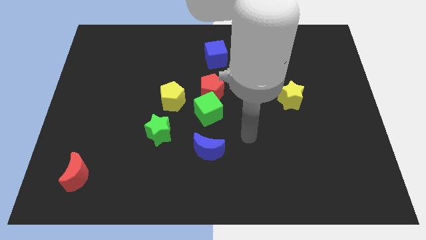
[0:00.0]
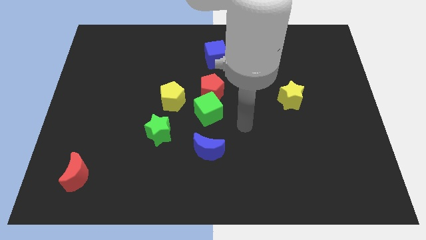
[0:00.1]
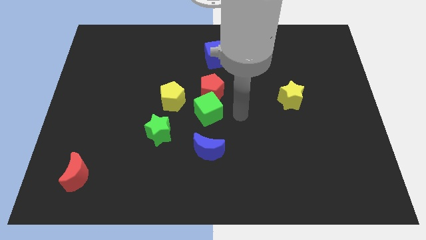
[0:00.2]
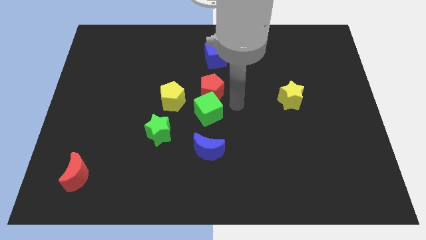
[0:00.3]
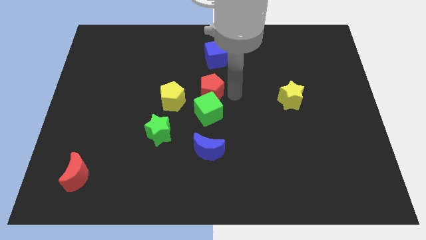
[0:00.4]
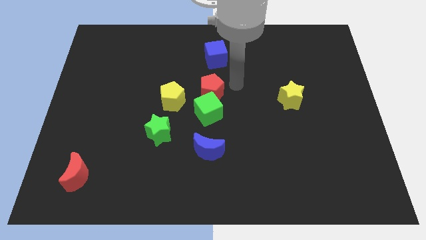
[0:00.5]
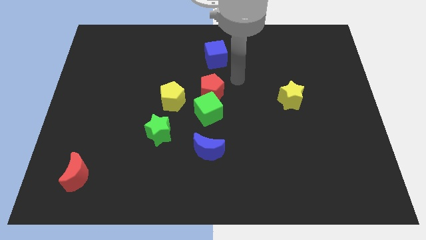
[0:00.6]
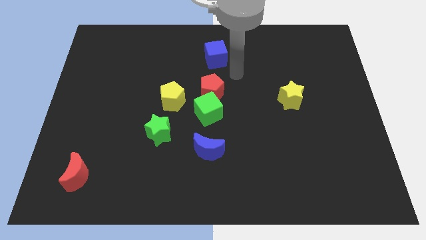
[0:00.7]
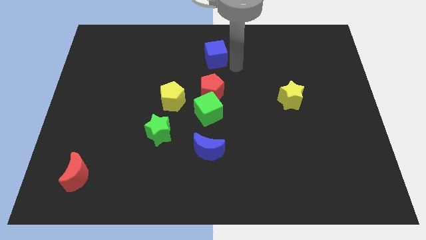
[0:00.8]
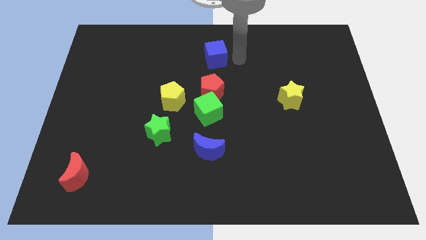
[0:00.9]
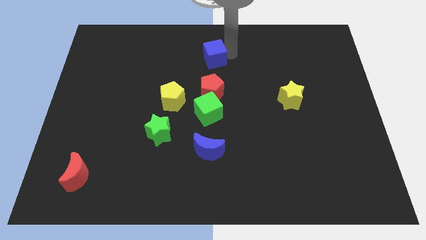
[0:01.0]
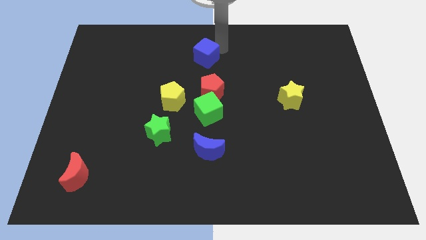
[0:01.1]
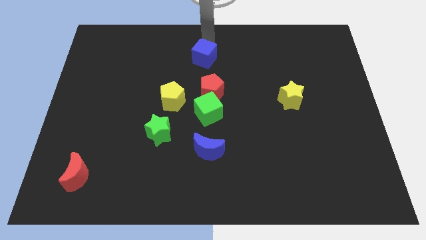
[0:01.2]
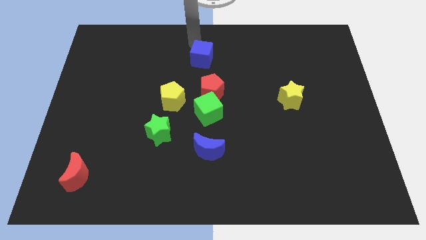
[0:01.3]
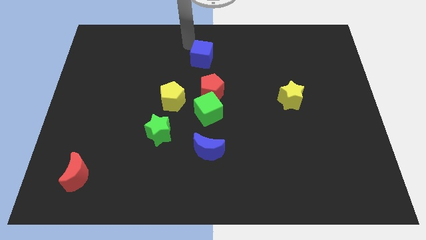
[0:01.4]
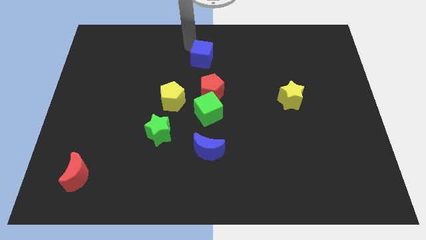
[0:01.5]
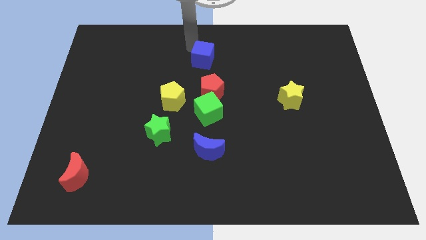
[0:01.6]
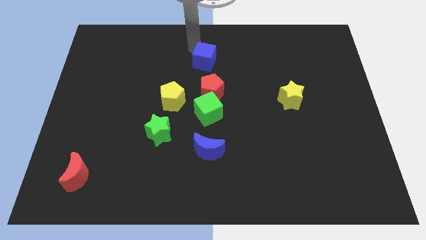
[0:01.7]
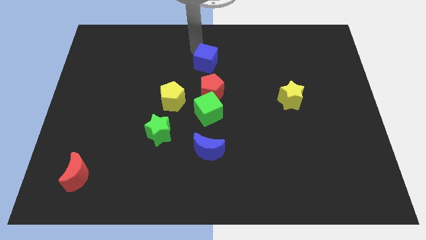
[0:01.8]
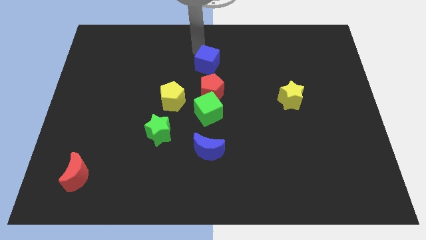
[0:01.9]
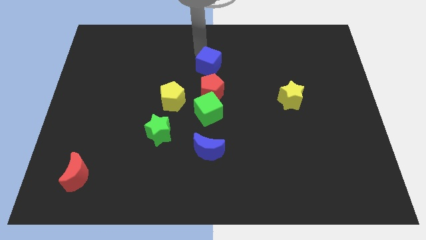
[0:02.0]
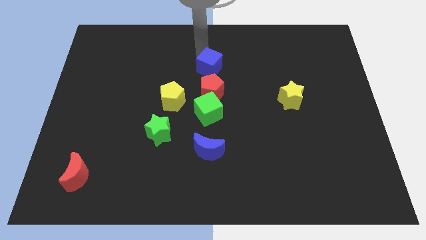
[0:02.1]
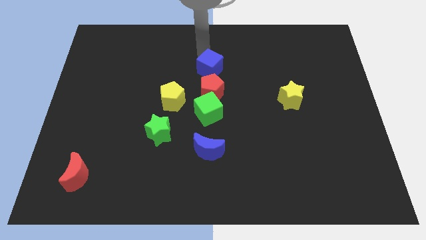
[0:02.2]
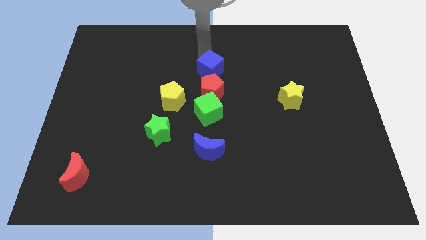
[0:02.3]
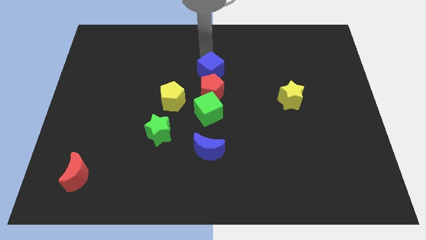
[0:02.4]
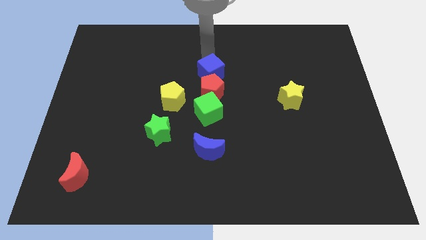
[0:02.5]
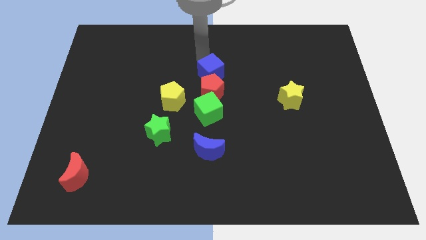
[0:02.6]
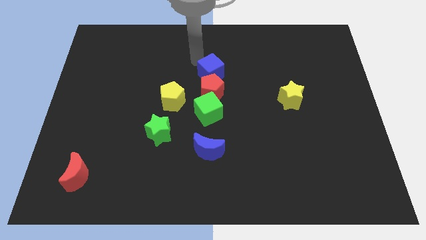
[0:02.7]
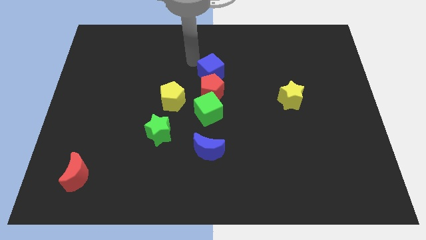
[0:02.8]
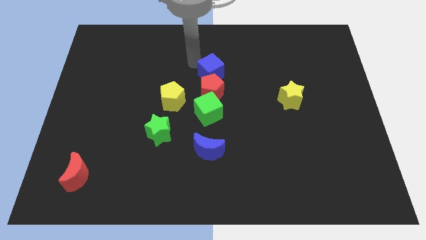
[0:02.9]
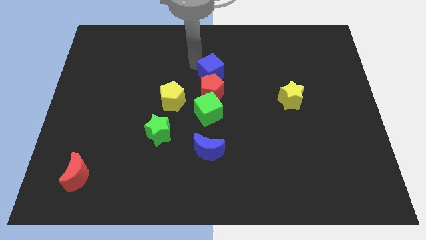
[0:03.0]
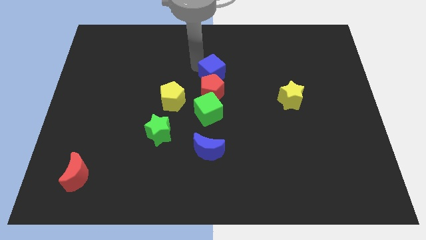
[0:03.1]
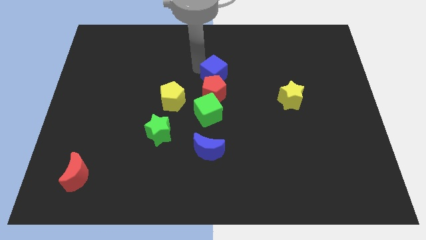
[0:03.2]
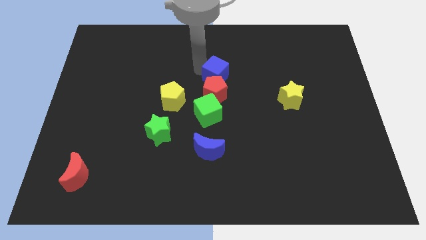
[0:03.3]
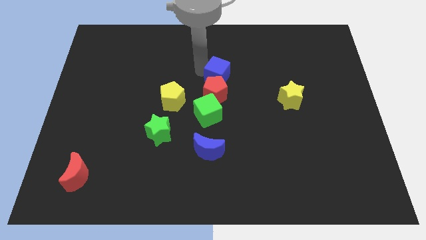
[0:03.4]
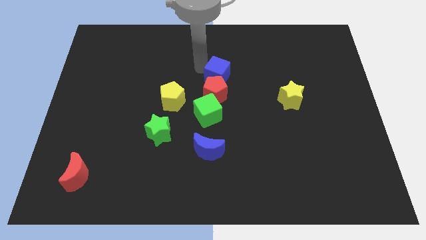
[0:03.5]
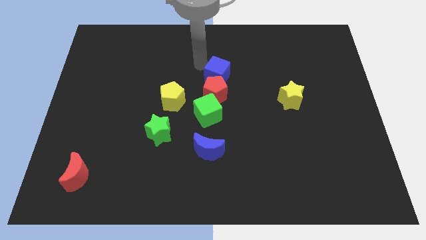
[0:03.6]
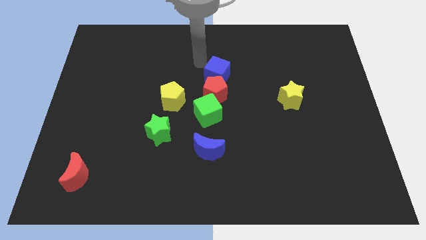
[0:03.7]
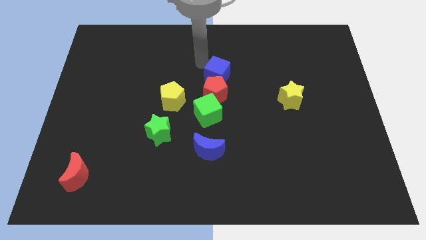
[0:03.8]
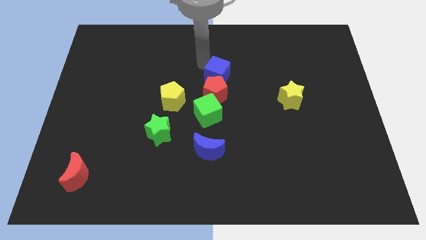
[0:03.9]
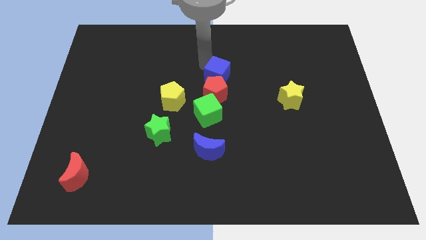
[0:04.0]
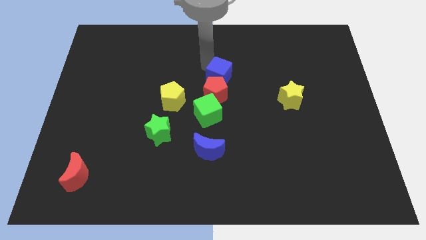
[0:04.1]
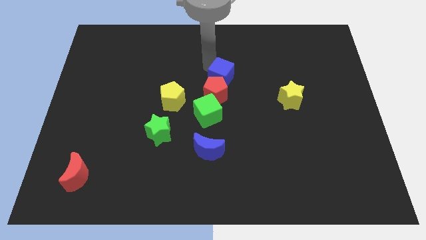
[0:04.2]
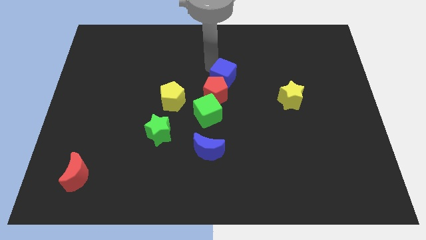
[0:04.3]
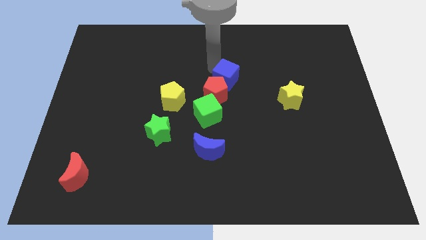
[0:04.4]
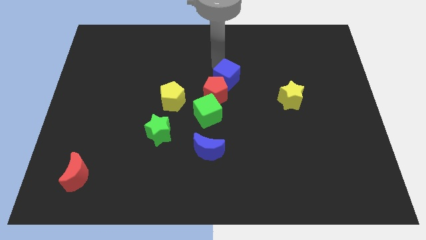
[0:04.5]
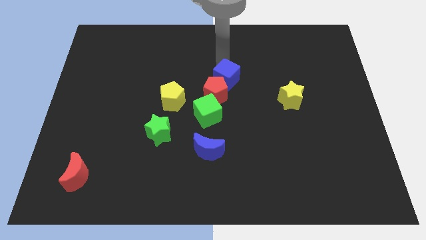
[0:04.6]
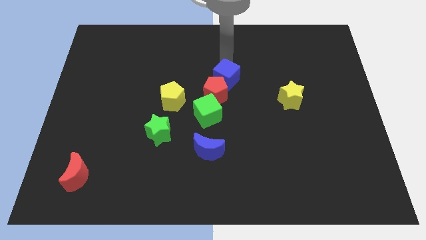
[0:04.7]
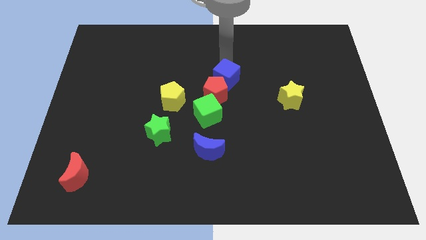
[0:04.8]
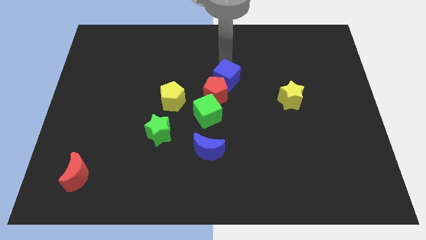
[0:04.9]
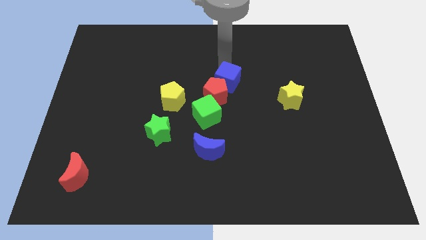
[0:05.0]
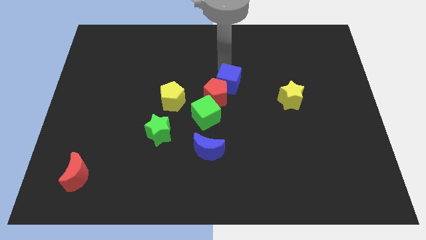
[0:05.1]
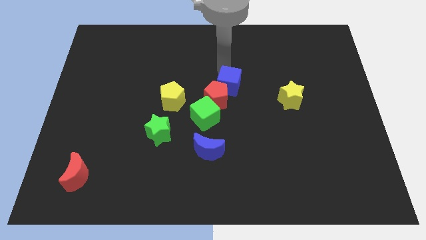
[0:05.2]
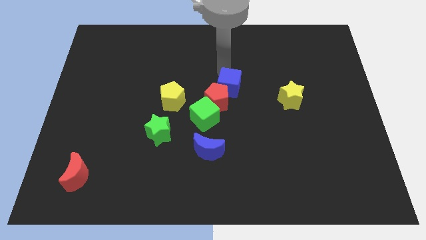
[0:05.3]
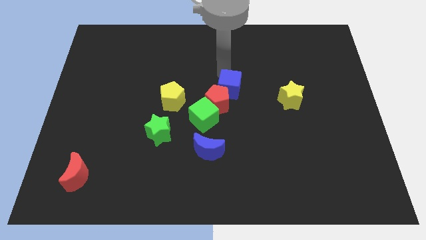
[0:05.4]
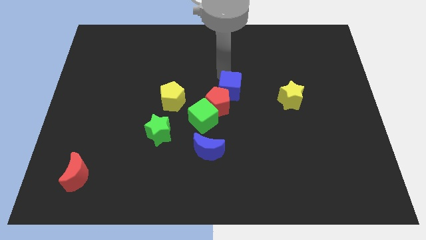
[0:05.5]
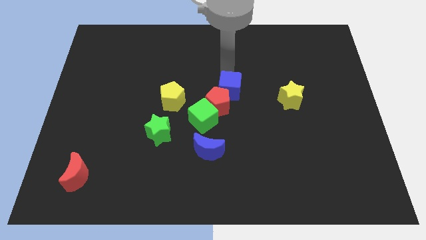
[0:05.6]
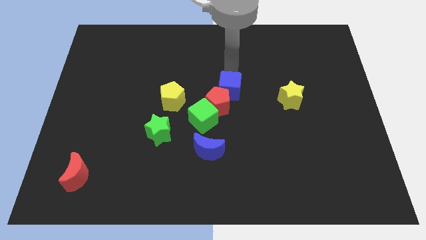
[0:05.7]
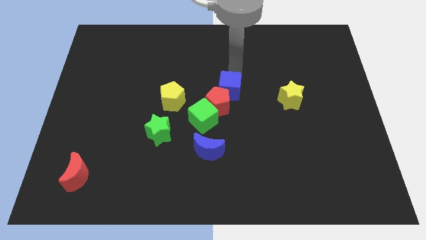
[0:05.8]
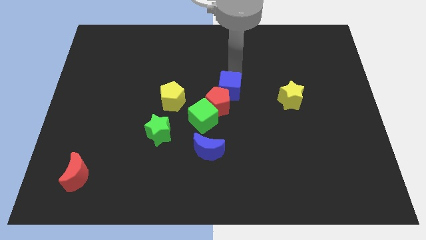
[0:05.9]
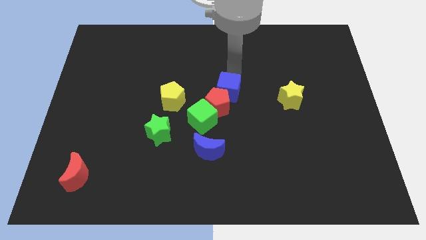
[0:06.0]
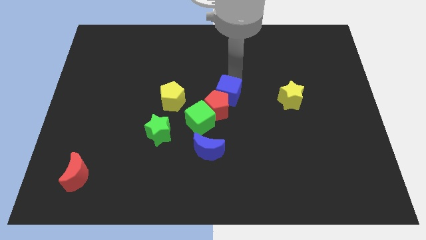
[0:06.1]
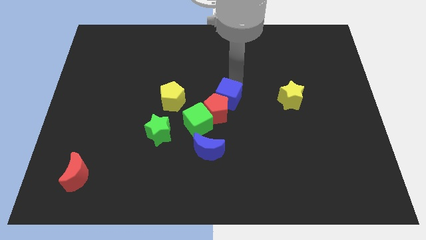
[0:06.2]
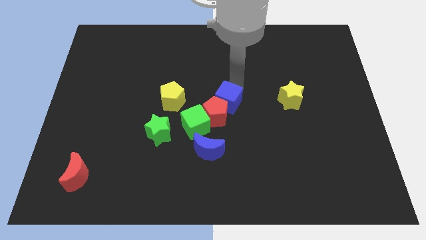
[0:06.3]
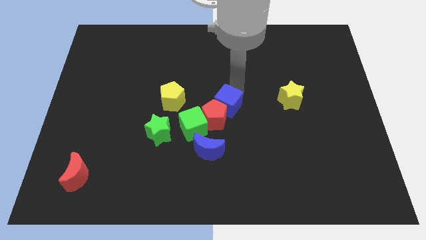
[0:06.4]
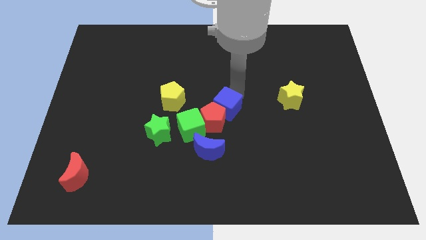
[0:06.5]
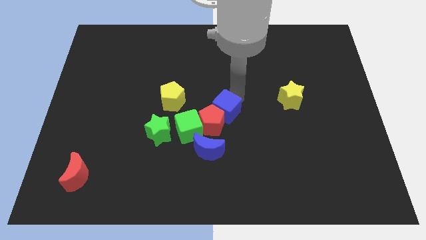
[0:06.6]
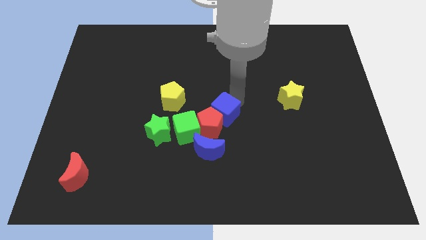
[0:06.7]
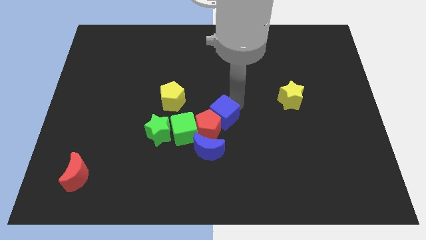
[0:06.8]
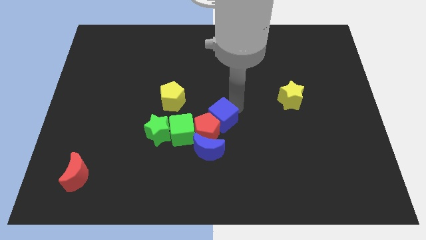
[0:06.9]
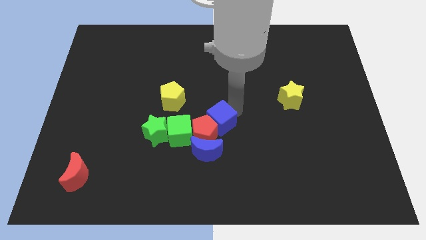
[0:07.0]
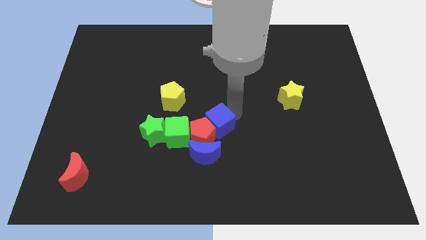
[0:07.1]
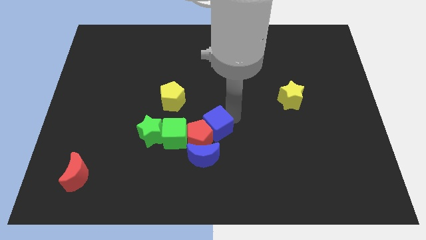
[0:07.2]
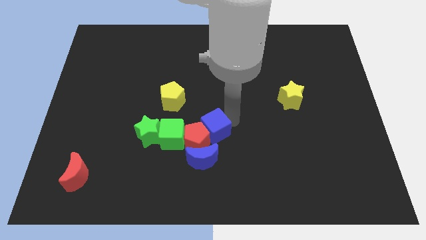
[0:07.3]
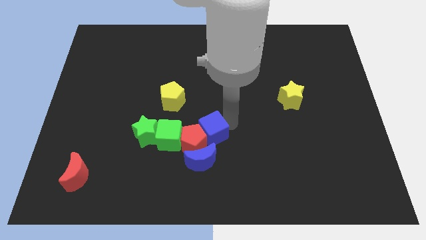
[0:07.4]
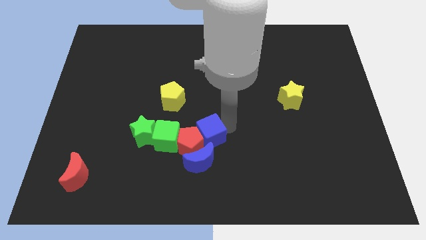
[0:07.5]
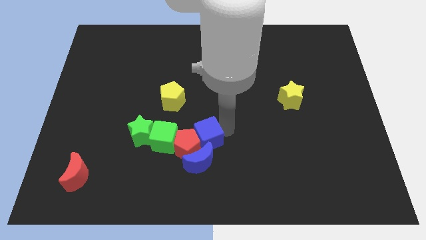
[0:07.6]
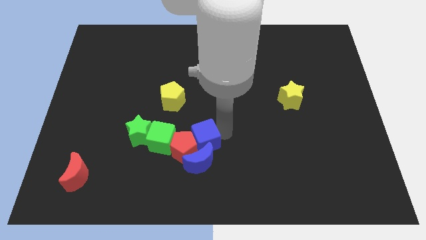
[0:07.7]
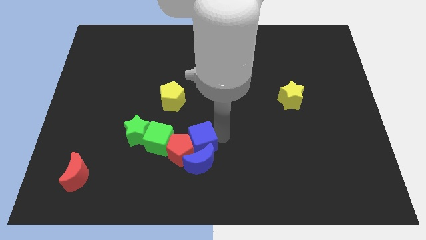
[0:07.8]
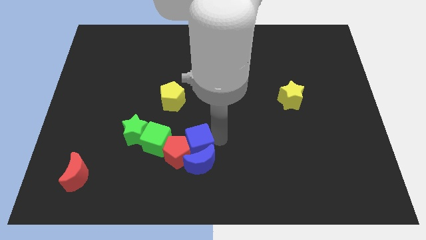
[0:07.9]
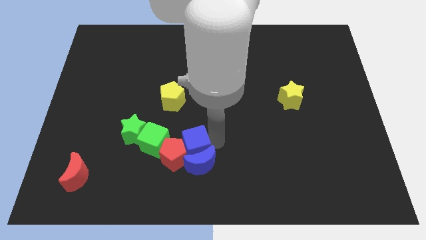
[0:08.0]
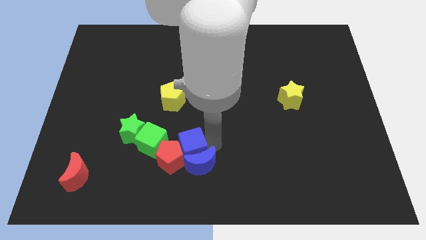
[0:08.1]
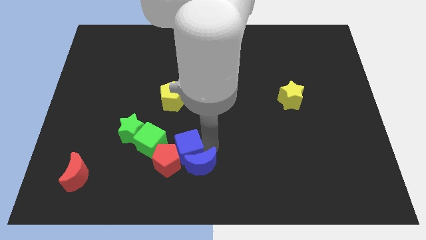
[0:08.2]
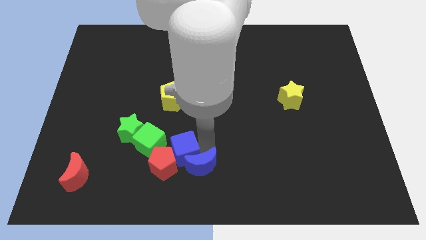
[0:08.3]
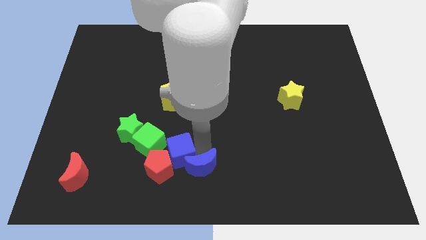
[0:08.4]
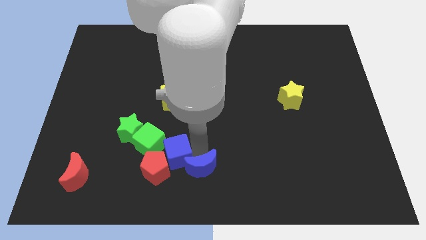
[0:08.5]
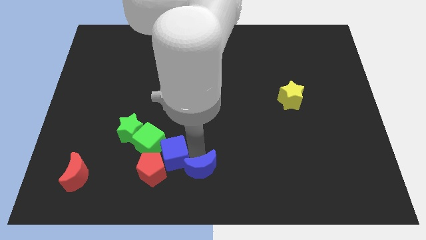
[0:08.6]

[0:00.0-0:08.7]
slide the blue cube close to the green cube
